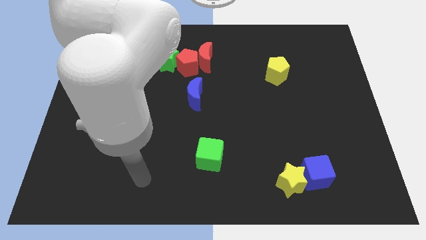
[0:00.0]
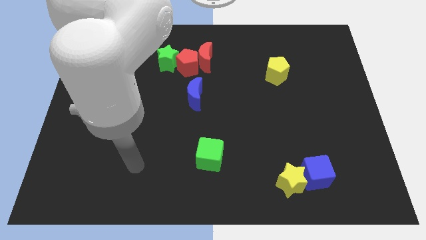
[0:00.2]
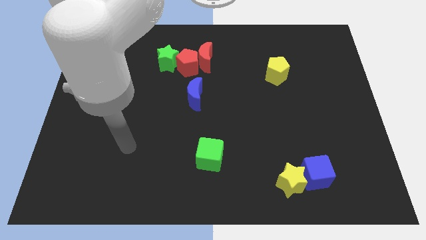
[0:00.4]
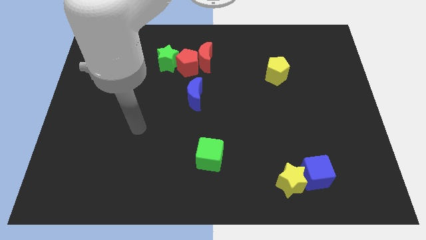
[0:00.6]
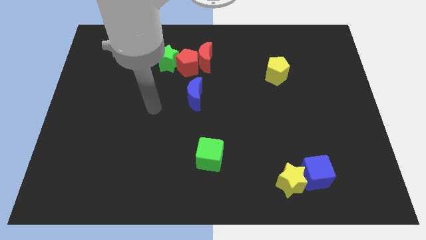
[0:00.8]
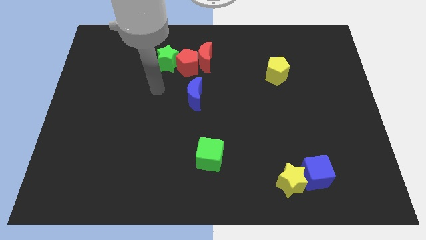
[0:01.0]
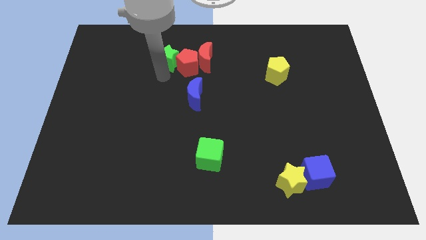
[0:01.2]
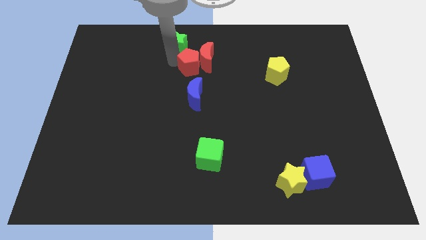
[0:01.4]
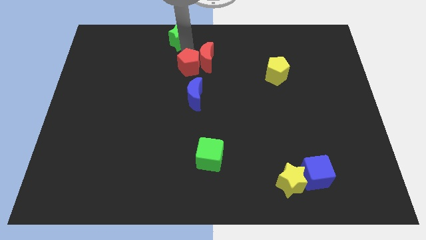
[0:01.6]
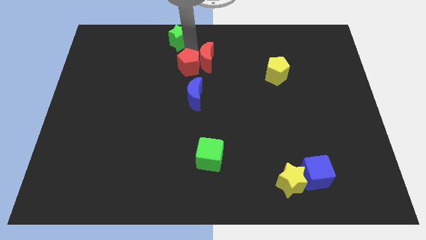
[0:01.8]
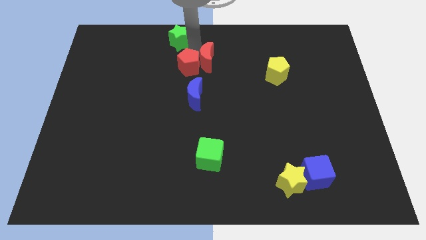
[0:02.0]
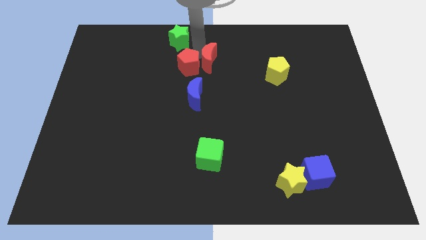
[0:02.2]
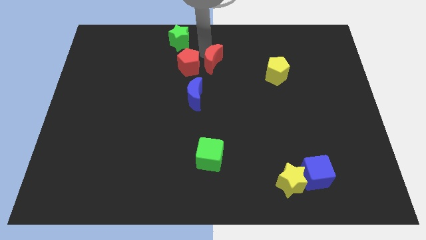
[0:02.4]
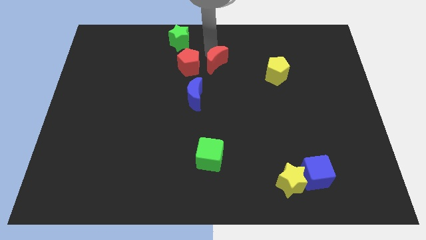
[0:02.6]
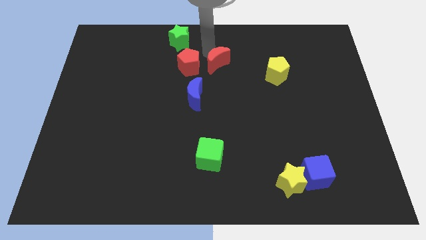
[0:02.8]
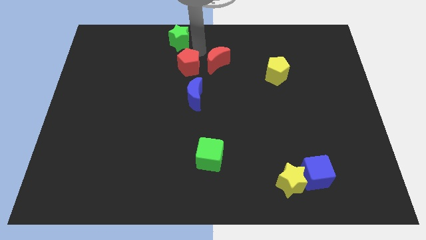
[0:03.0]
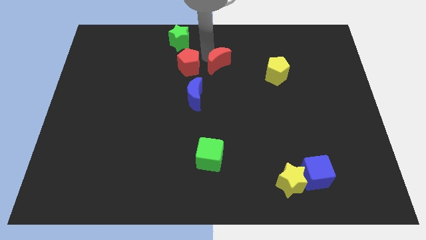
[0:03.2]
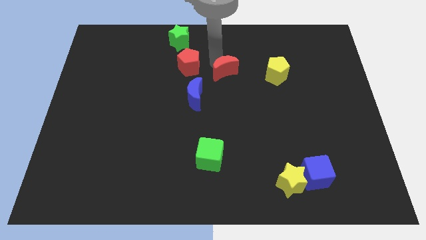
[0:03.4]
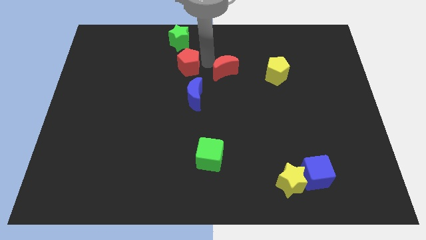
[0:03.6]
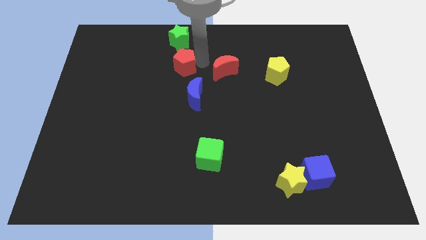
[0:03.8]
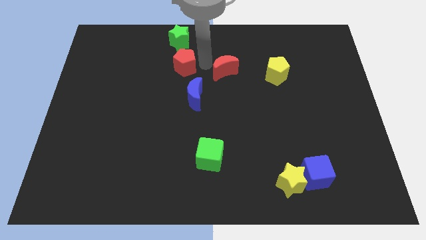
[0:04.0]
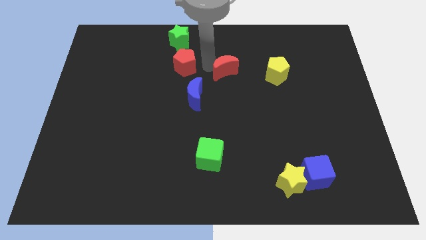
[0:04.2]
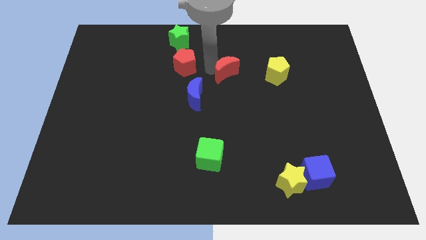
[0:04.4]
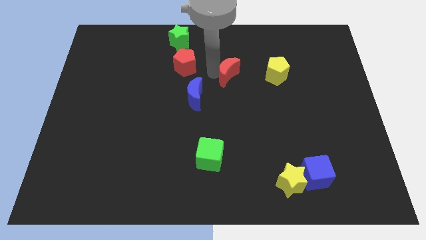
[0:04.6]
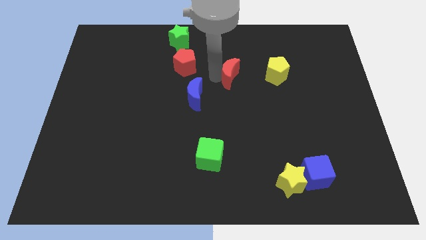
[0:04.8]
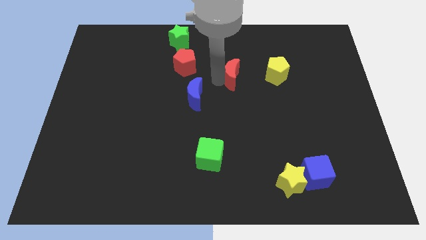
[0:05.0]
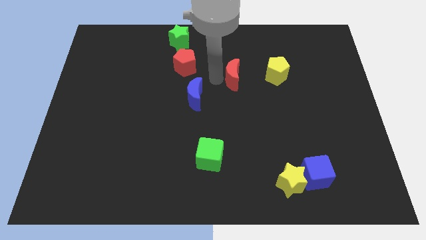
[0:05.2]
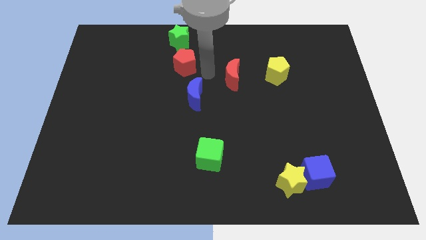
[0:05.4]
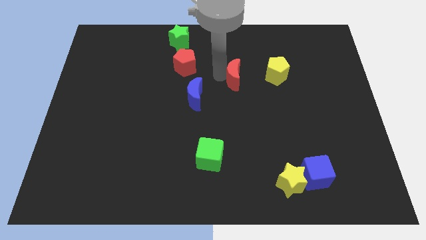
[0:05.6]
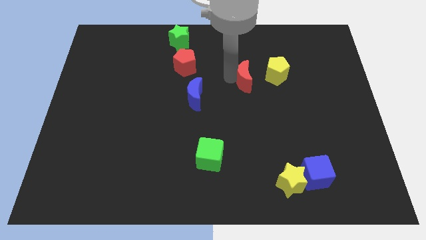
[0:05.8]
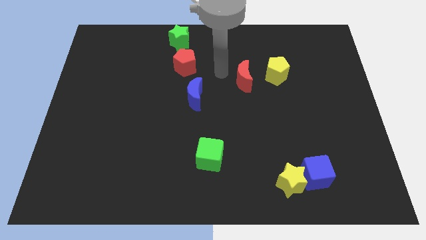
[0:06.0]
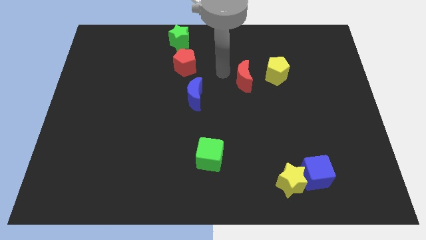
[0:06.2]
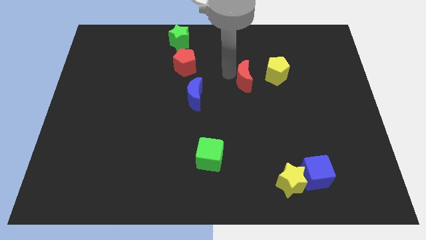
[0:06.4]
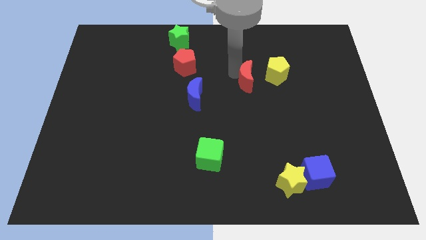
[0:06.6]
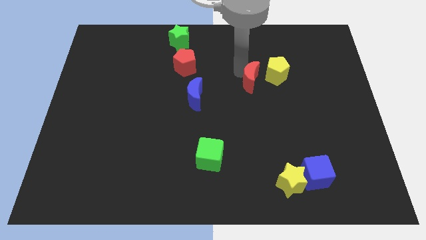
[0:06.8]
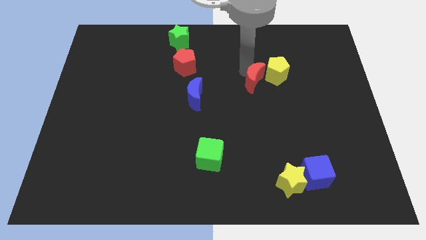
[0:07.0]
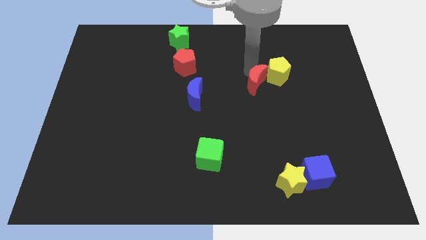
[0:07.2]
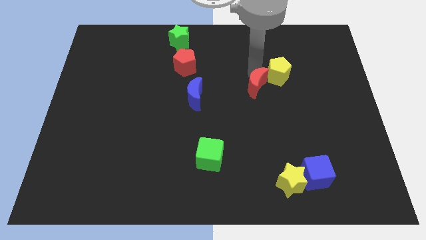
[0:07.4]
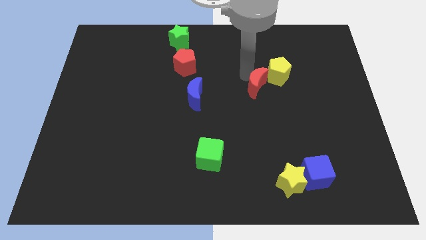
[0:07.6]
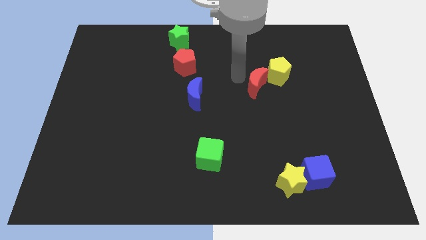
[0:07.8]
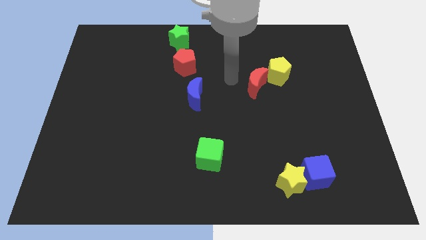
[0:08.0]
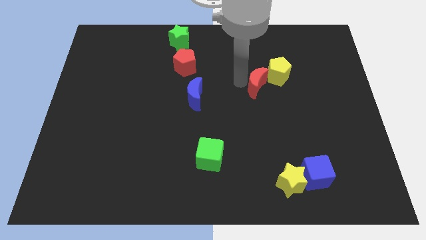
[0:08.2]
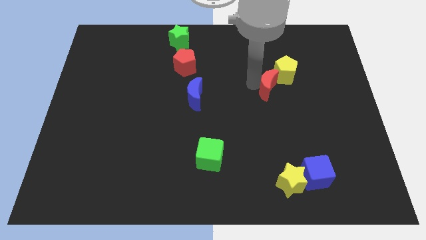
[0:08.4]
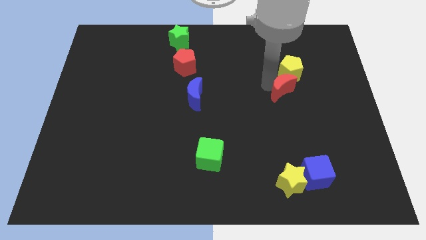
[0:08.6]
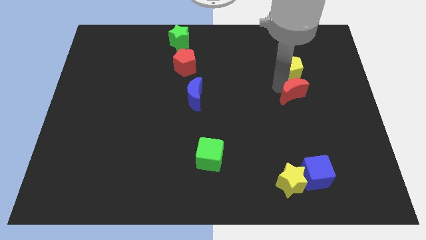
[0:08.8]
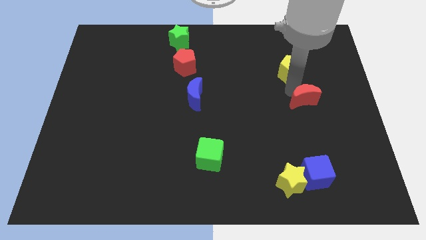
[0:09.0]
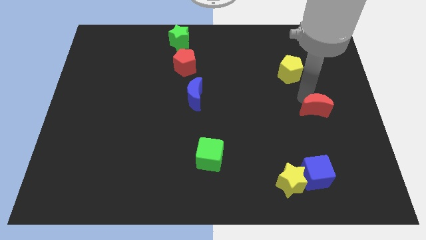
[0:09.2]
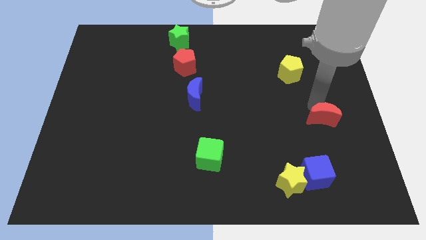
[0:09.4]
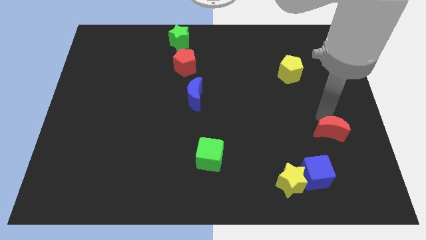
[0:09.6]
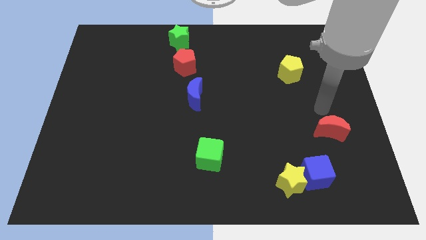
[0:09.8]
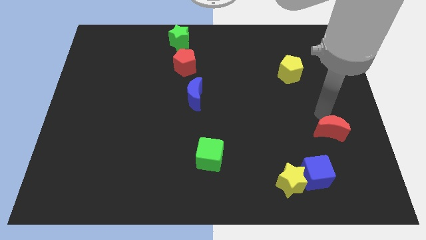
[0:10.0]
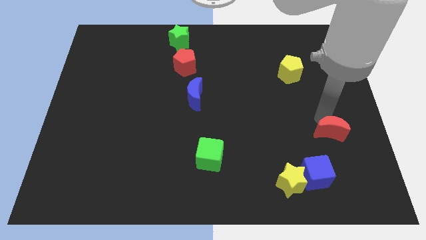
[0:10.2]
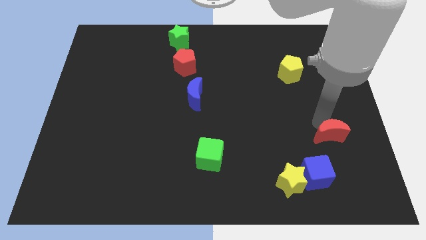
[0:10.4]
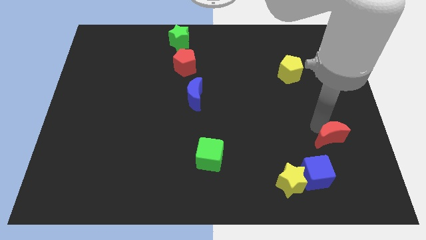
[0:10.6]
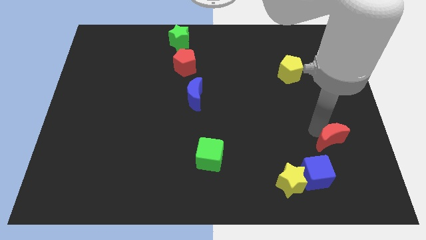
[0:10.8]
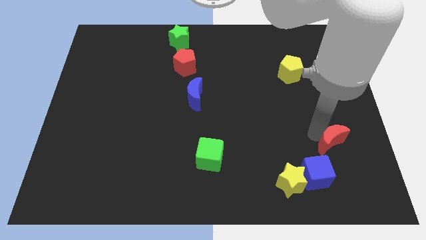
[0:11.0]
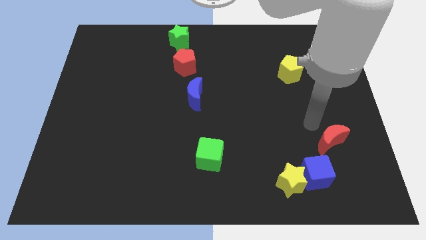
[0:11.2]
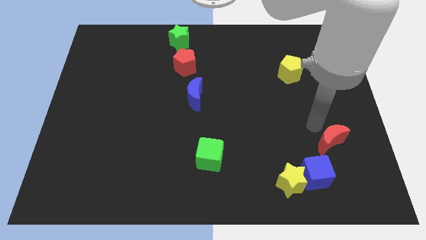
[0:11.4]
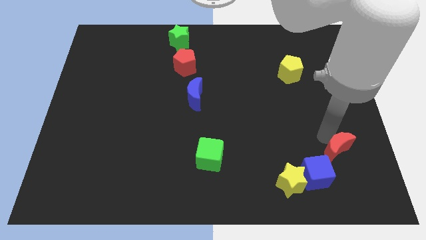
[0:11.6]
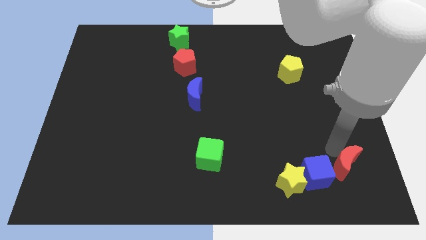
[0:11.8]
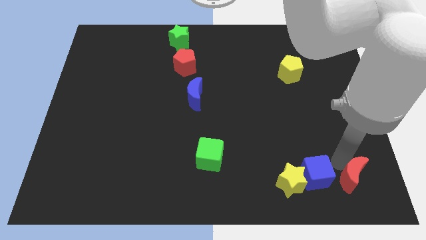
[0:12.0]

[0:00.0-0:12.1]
put the red moon to the bottom right of the board
